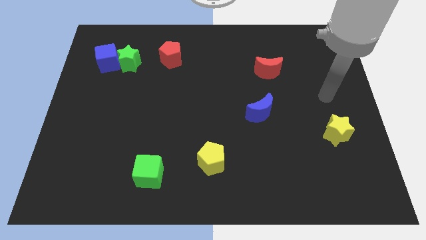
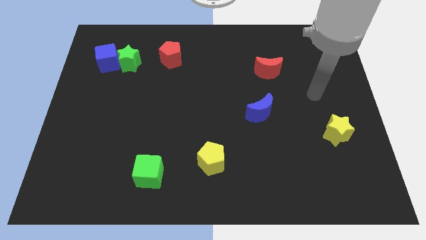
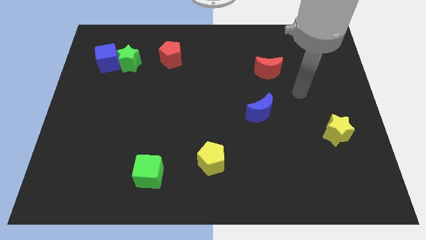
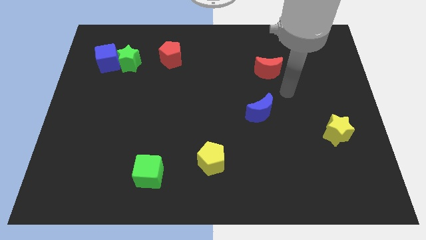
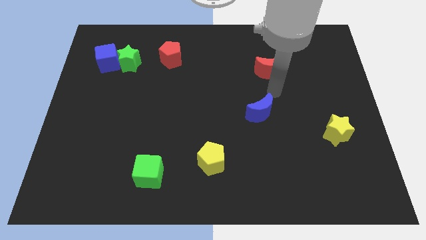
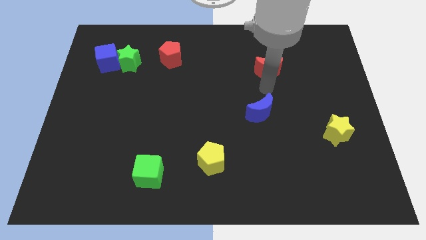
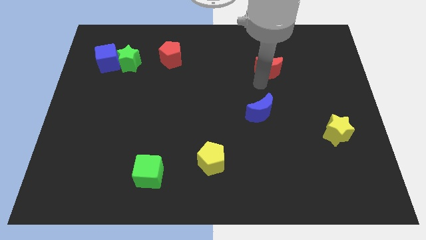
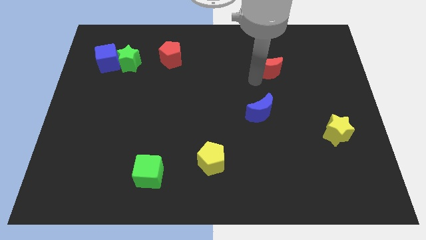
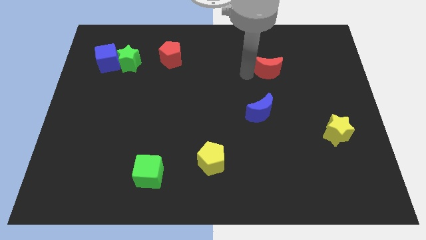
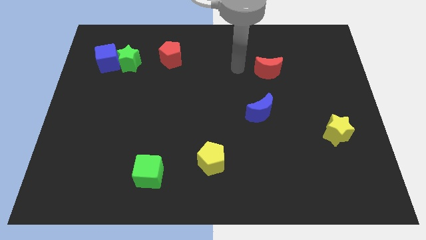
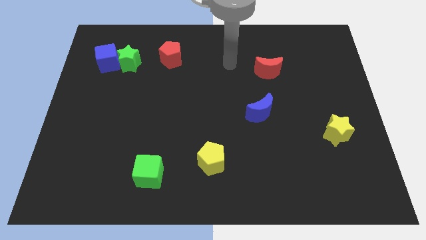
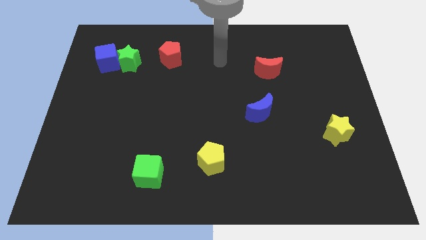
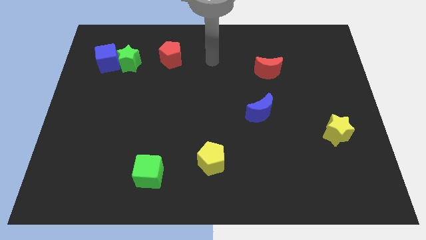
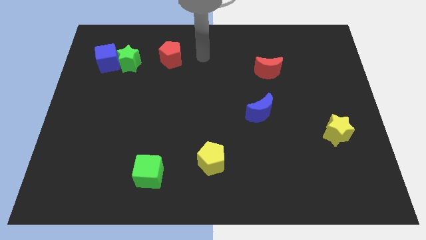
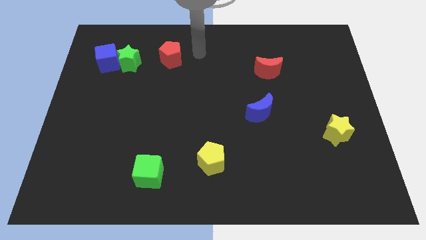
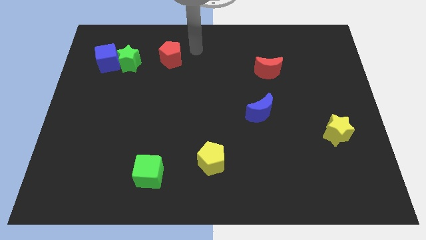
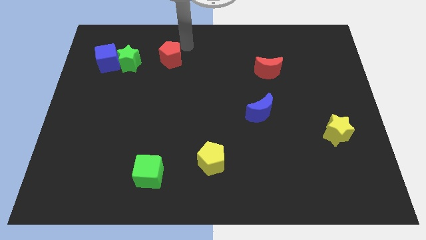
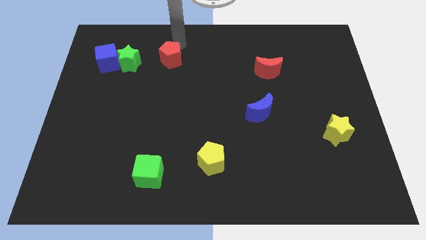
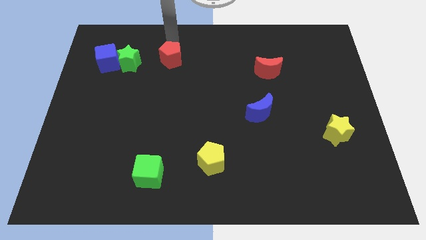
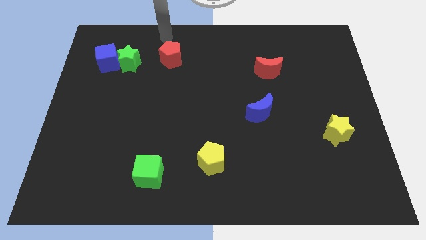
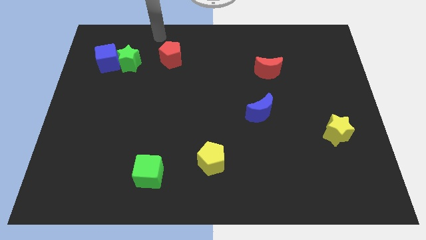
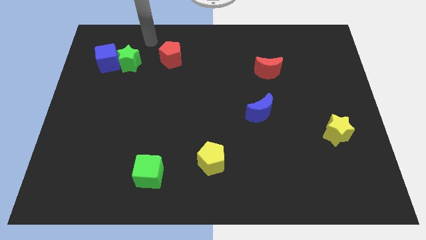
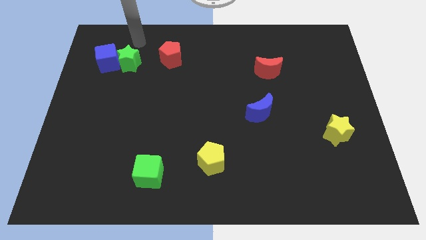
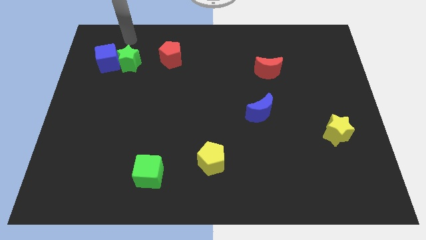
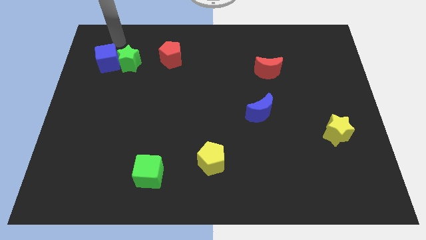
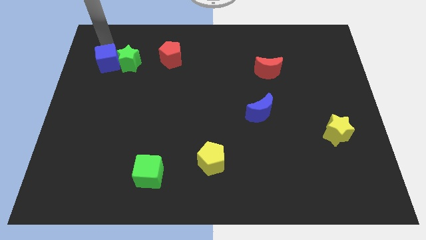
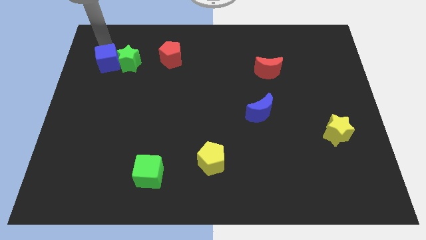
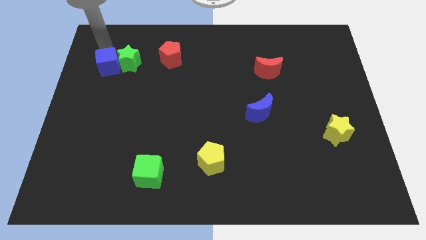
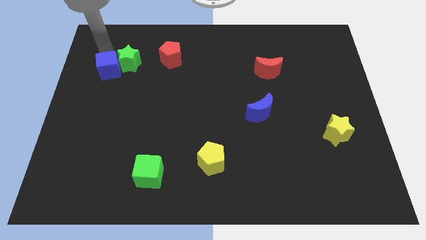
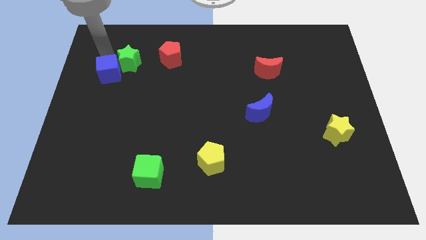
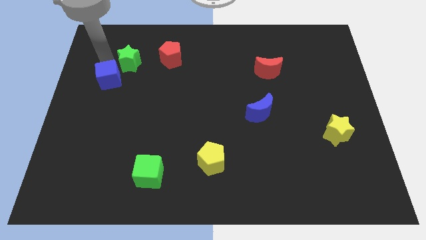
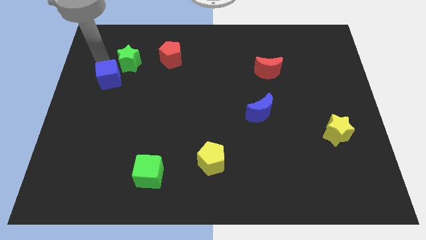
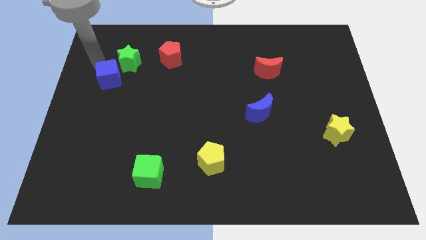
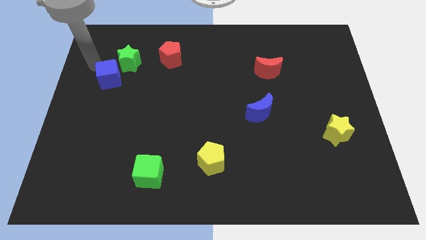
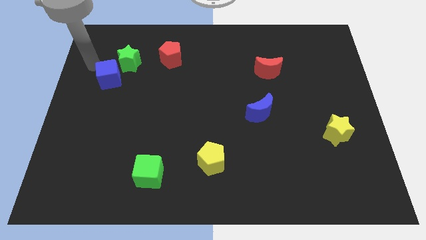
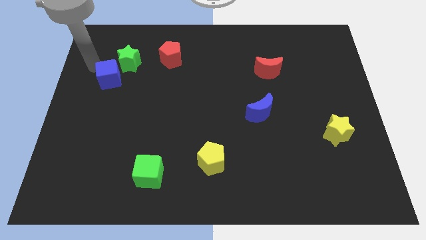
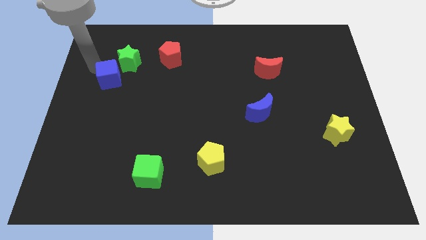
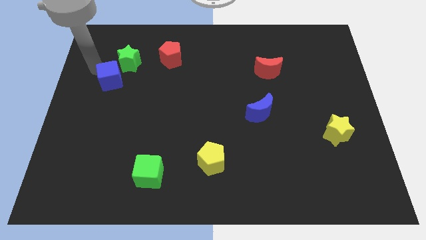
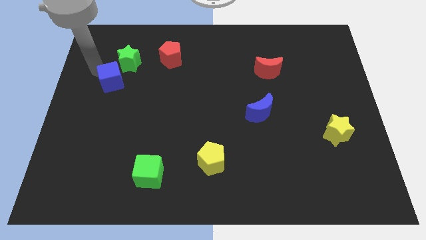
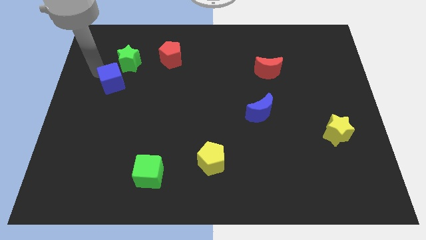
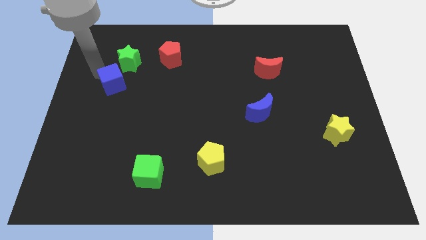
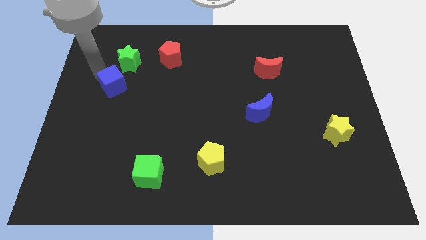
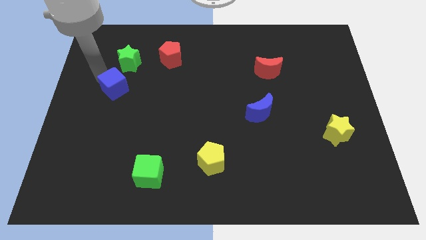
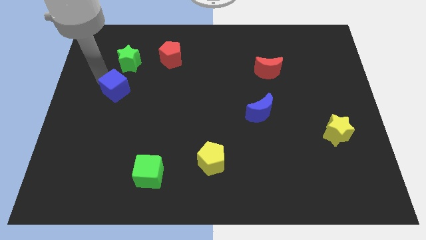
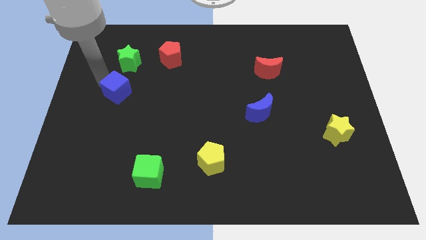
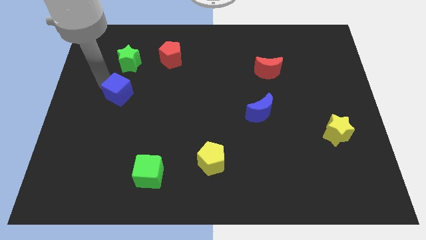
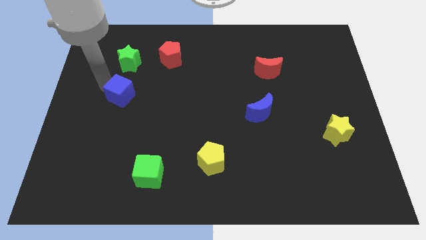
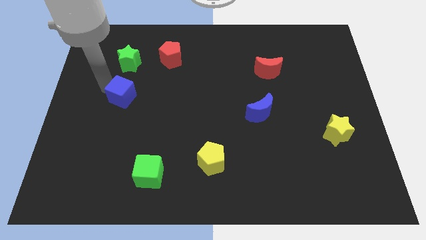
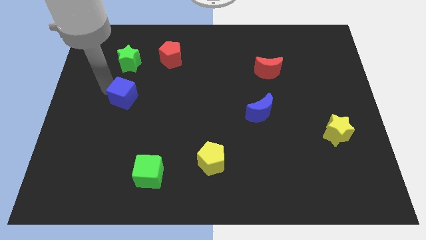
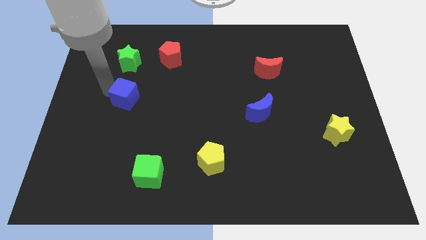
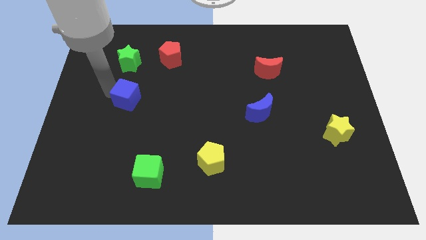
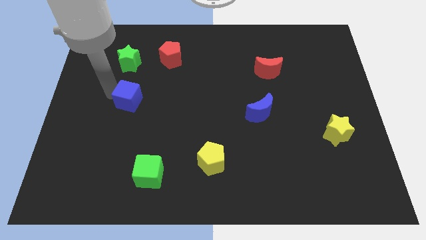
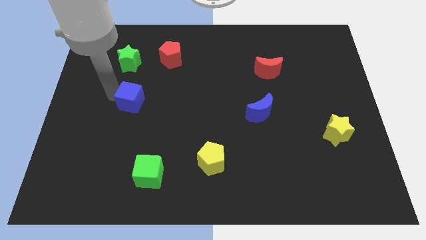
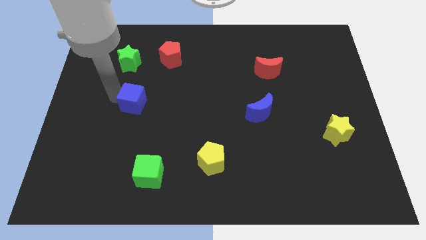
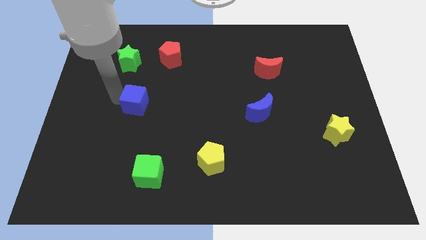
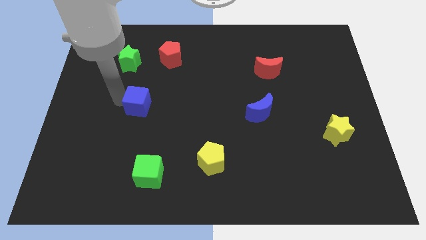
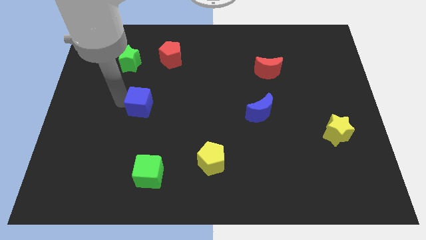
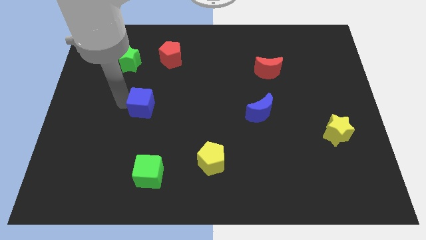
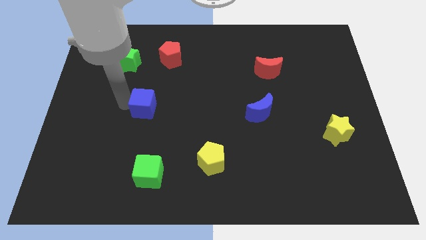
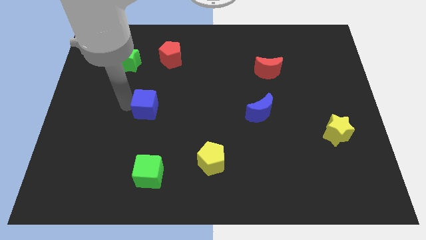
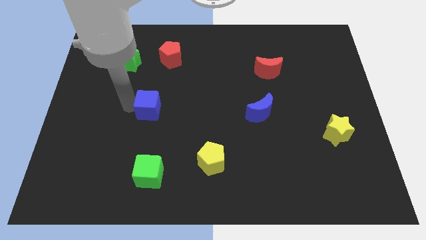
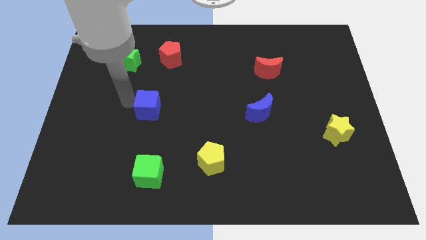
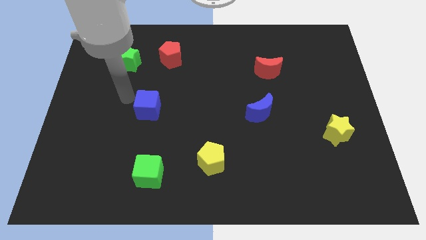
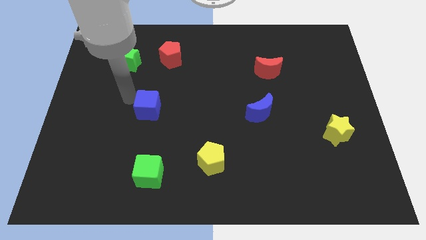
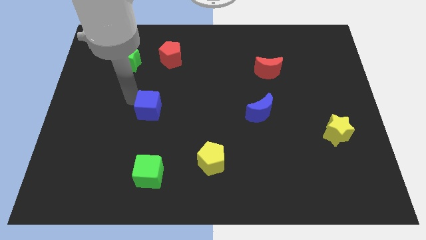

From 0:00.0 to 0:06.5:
push the blue cube down and to the right diagonally

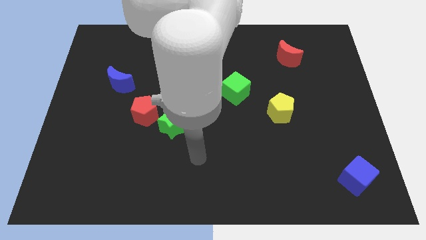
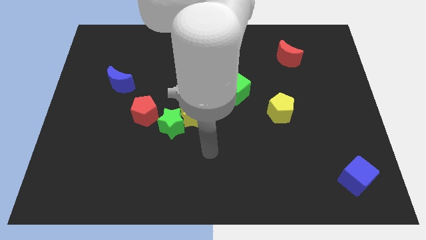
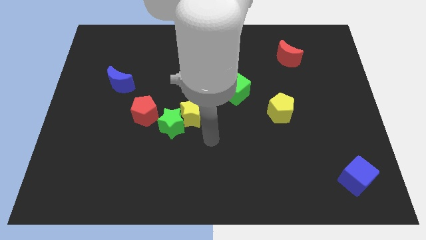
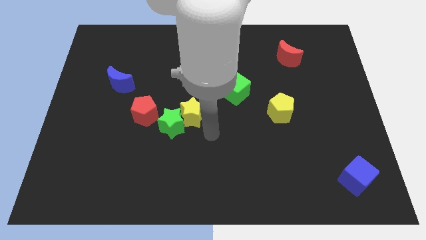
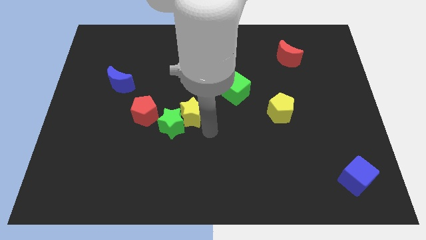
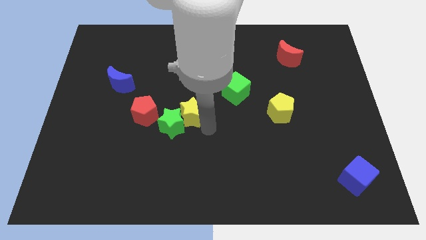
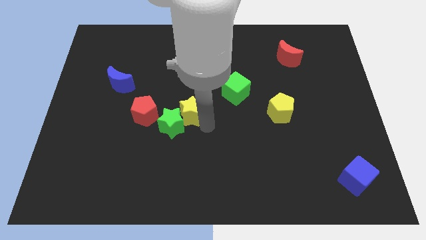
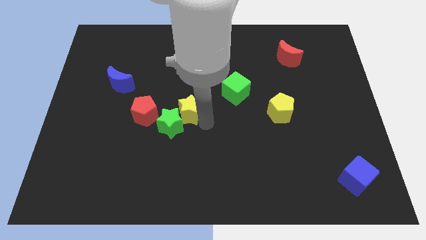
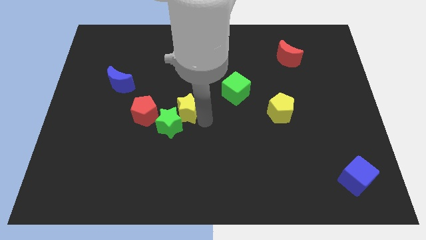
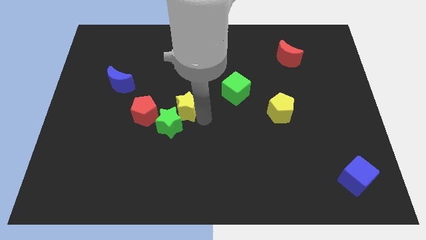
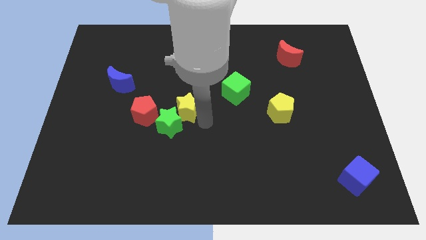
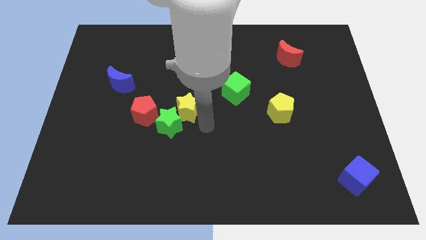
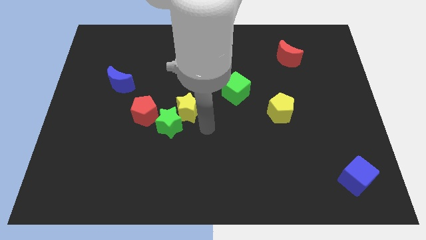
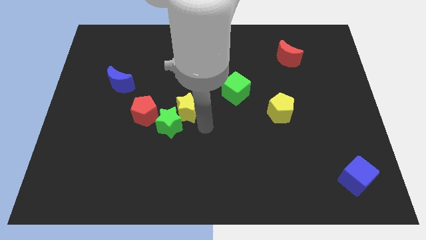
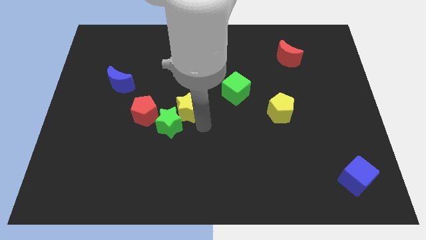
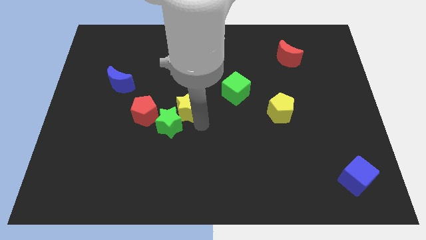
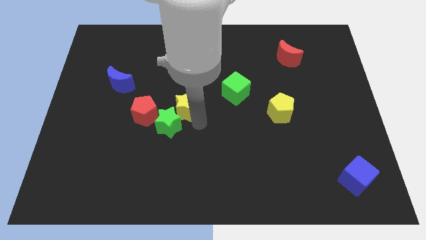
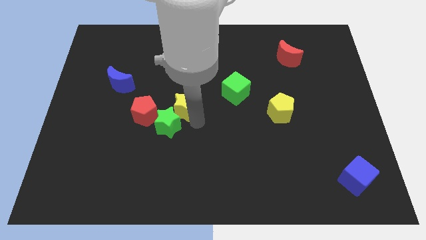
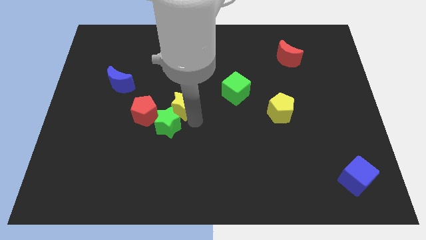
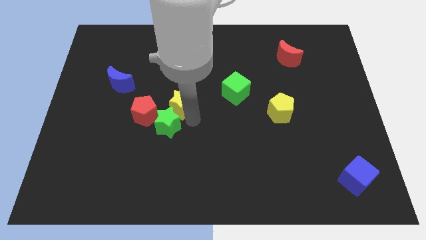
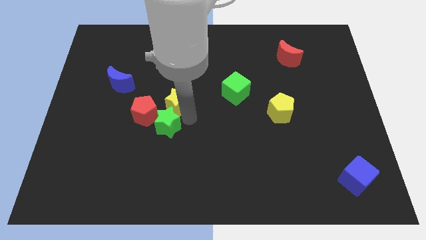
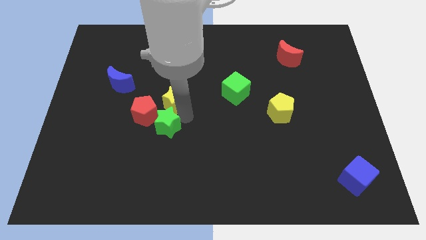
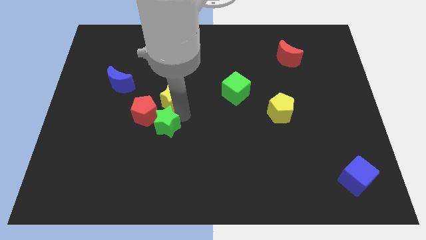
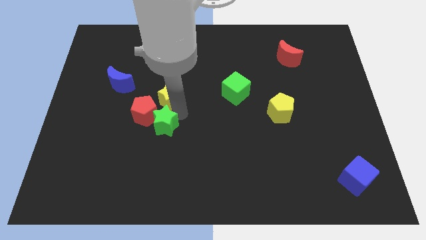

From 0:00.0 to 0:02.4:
slightly slide the yellow star up and to the left diagonally
